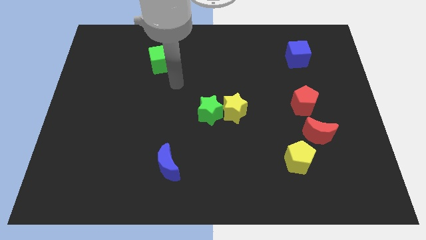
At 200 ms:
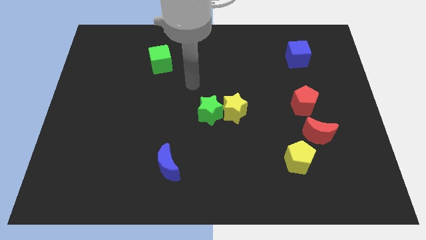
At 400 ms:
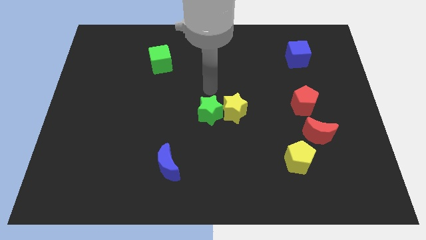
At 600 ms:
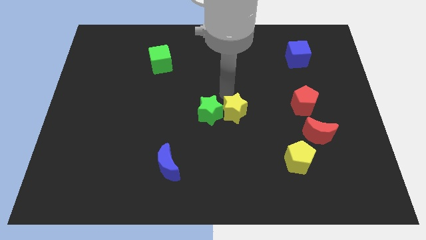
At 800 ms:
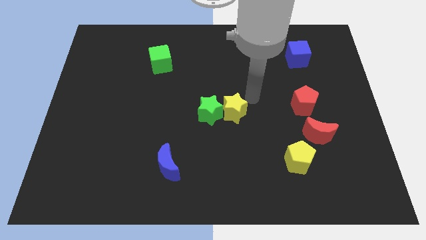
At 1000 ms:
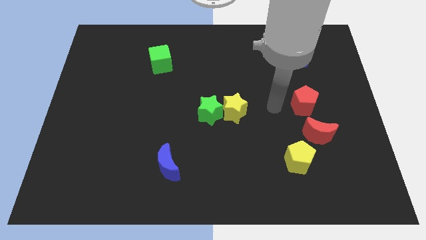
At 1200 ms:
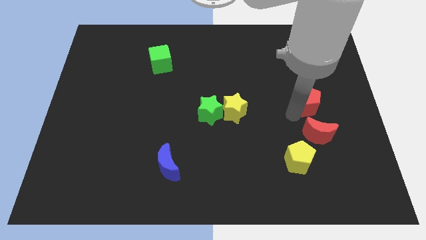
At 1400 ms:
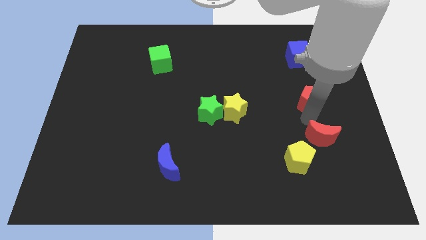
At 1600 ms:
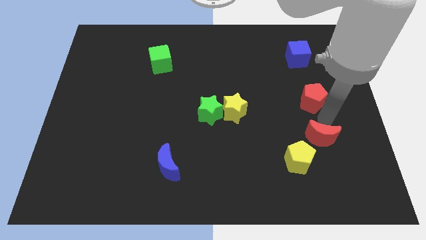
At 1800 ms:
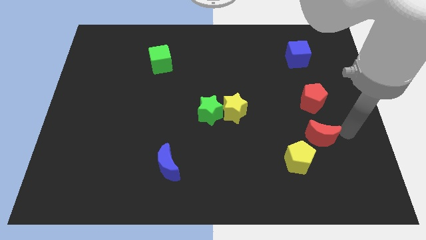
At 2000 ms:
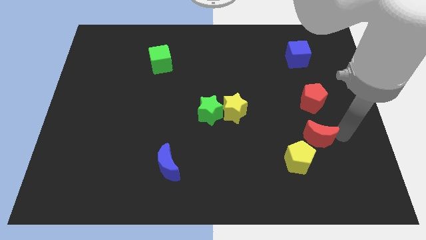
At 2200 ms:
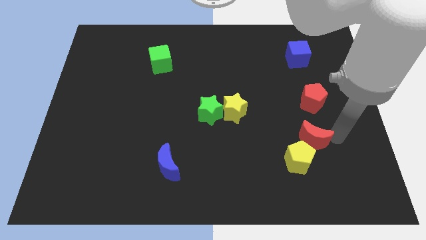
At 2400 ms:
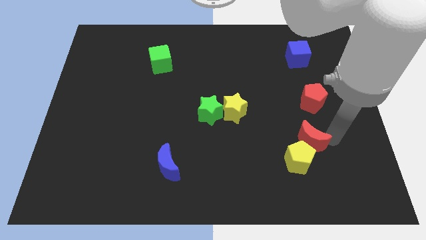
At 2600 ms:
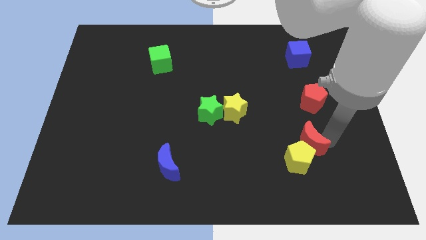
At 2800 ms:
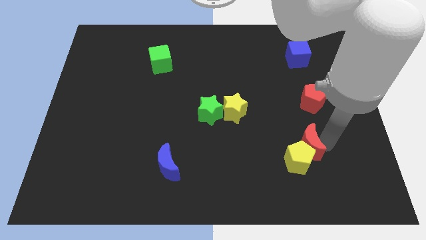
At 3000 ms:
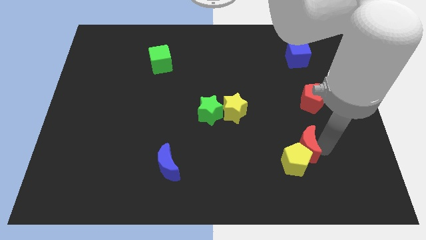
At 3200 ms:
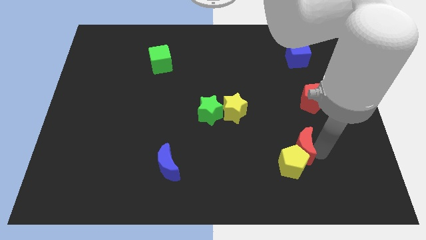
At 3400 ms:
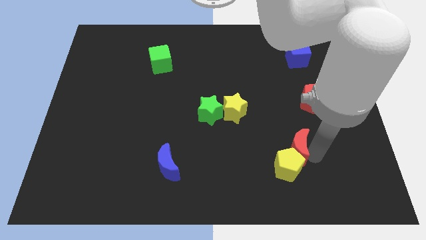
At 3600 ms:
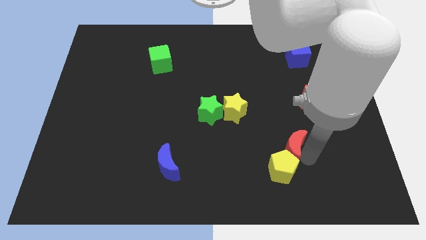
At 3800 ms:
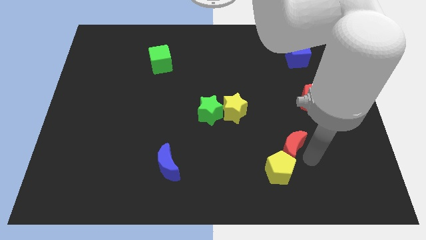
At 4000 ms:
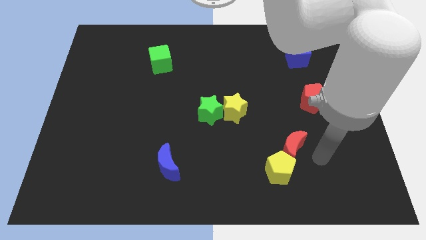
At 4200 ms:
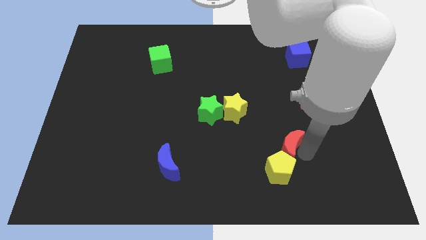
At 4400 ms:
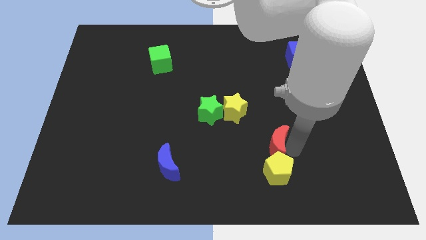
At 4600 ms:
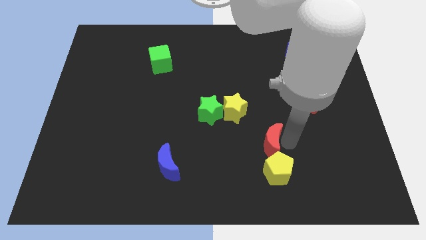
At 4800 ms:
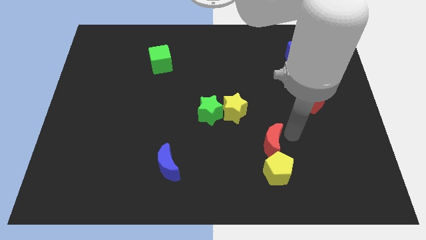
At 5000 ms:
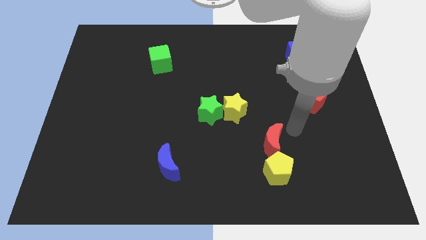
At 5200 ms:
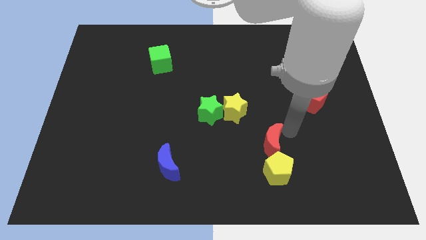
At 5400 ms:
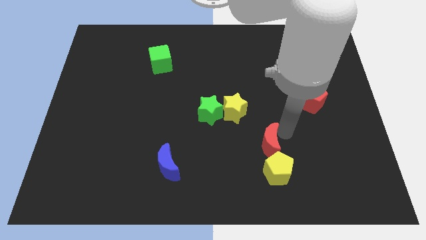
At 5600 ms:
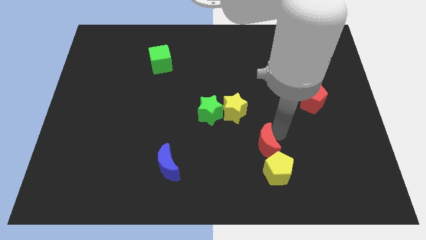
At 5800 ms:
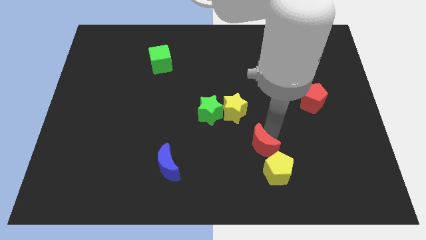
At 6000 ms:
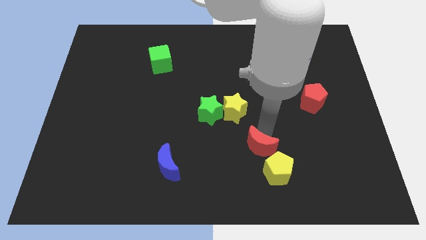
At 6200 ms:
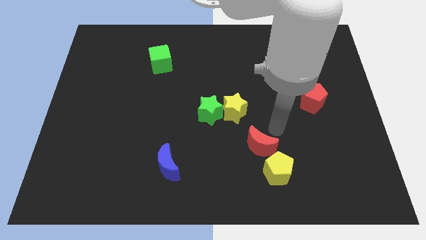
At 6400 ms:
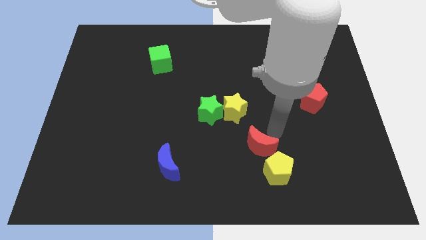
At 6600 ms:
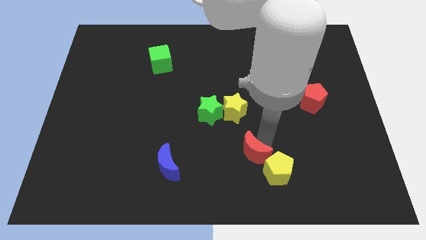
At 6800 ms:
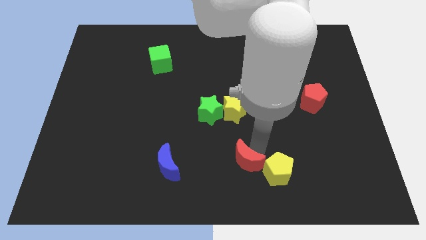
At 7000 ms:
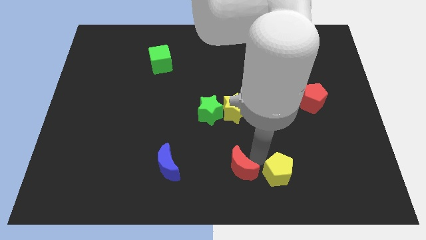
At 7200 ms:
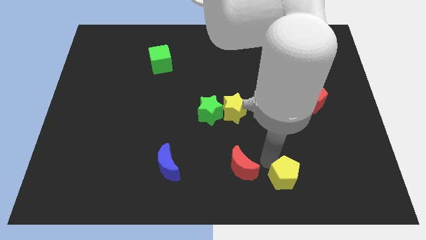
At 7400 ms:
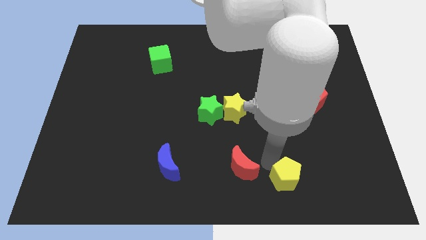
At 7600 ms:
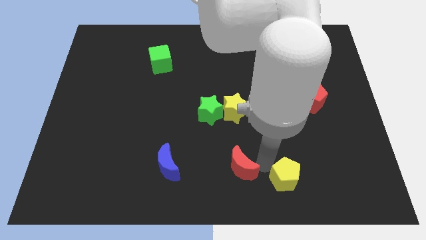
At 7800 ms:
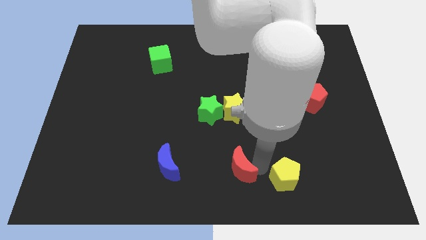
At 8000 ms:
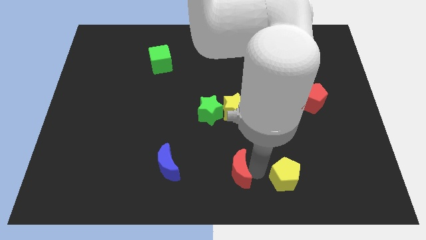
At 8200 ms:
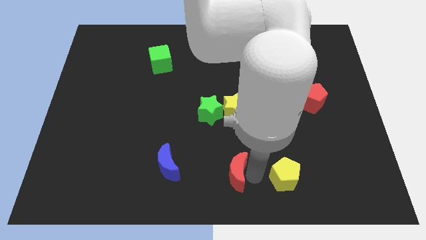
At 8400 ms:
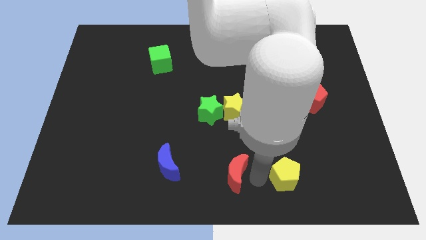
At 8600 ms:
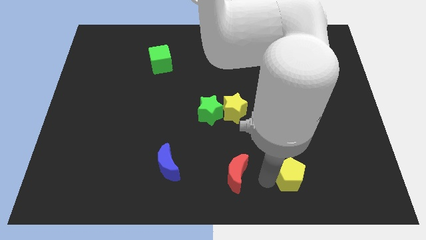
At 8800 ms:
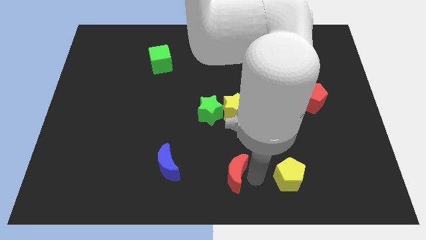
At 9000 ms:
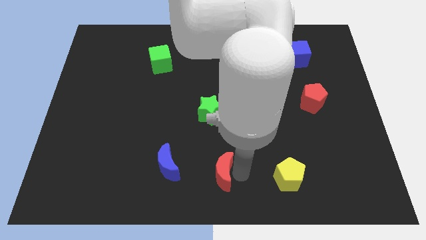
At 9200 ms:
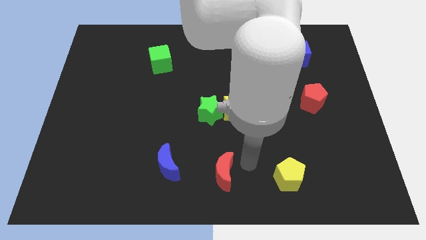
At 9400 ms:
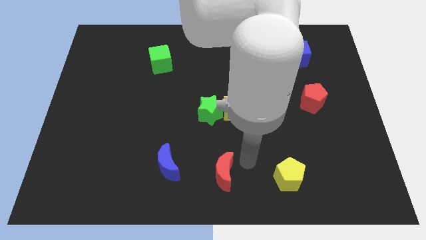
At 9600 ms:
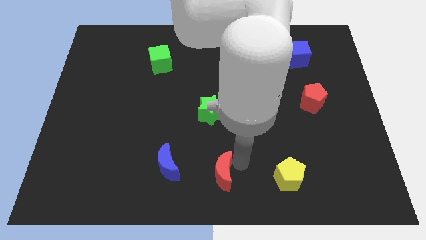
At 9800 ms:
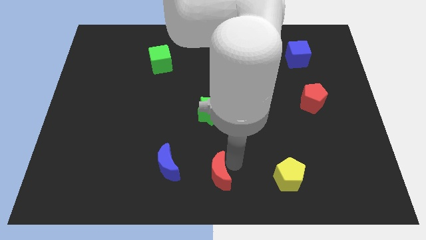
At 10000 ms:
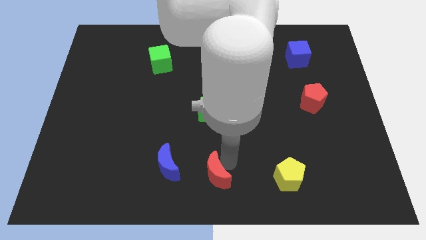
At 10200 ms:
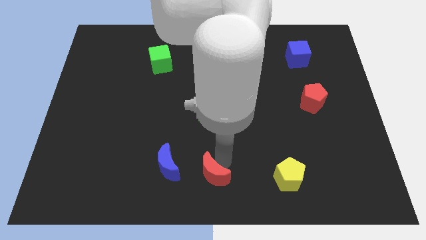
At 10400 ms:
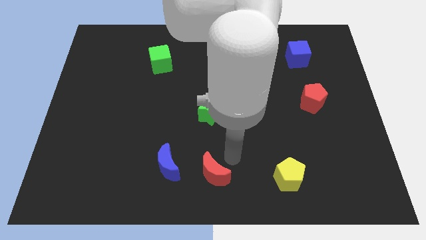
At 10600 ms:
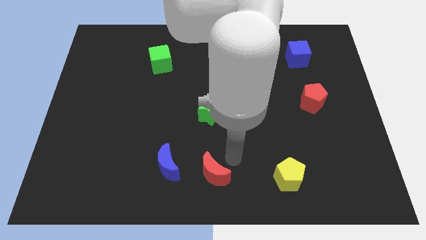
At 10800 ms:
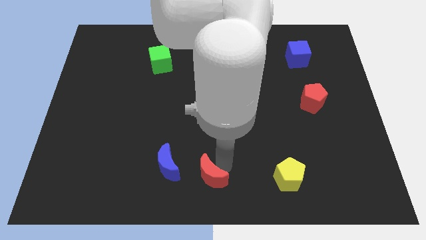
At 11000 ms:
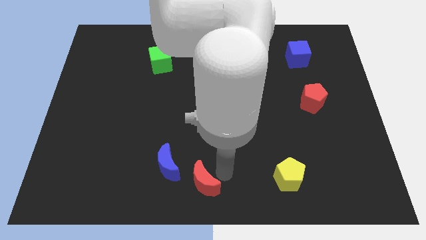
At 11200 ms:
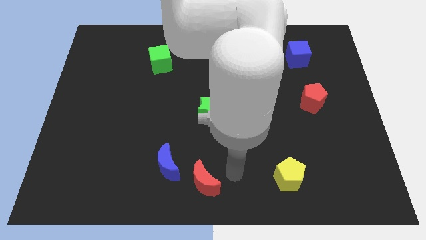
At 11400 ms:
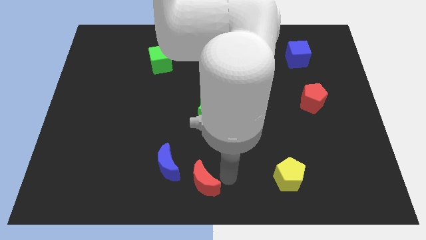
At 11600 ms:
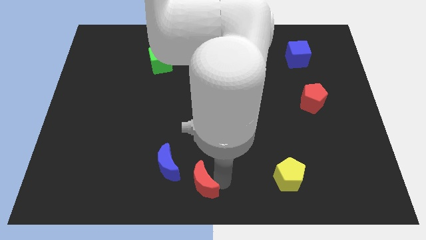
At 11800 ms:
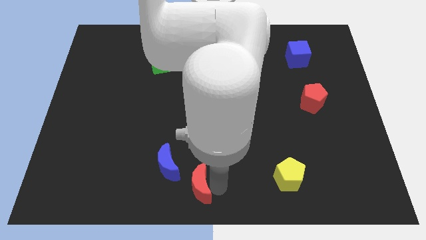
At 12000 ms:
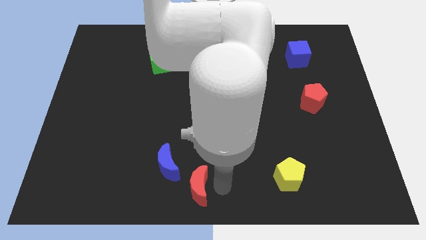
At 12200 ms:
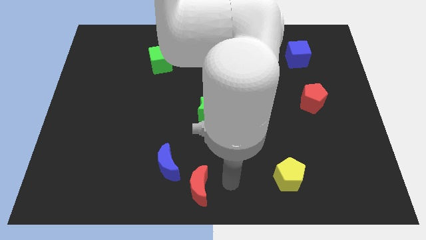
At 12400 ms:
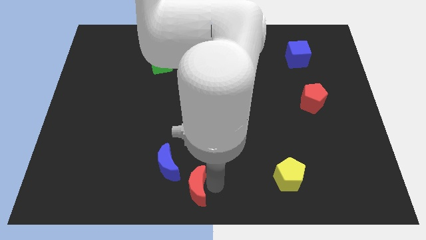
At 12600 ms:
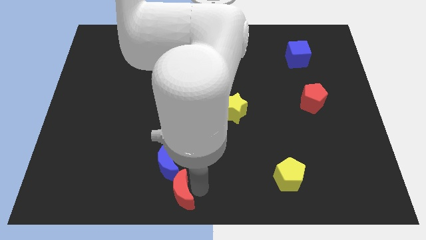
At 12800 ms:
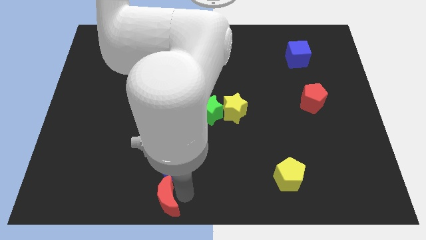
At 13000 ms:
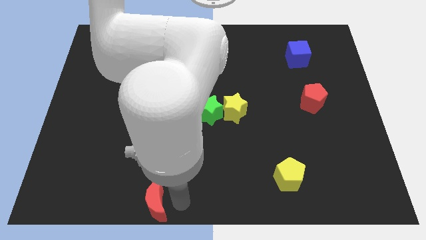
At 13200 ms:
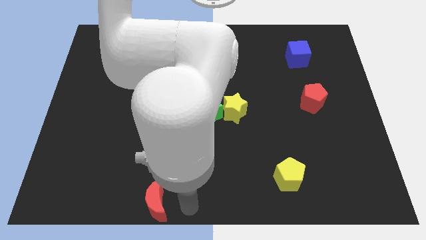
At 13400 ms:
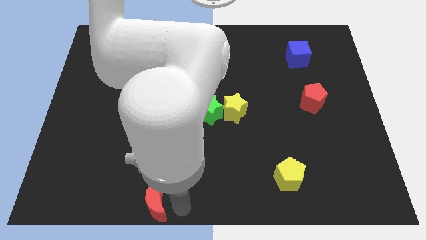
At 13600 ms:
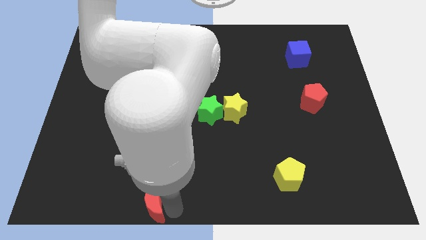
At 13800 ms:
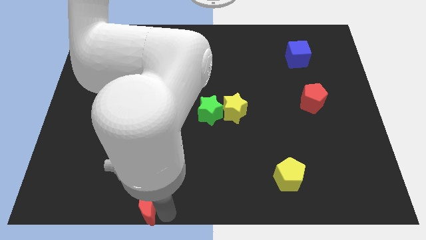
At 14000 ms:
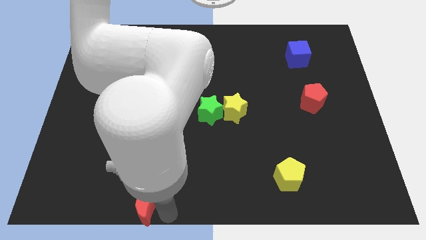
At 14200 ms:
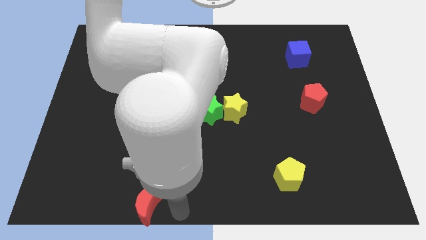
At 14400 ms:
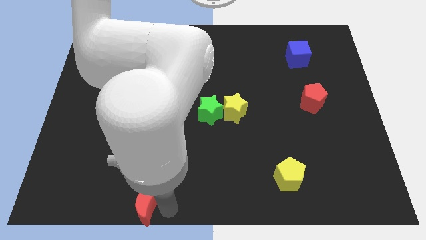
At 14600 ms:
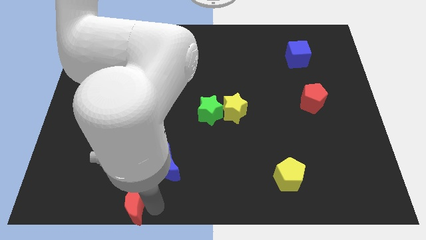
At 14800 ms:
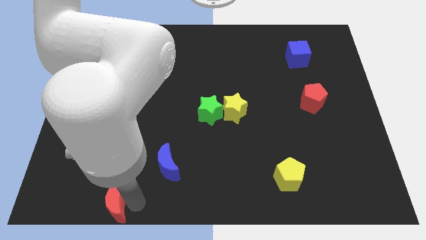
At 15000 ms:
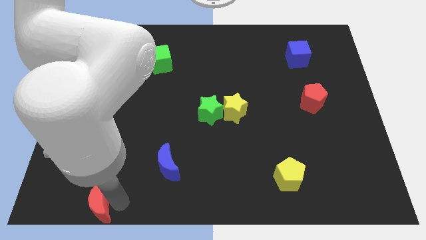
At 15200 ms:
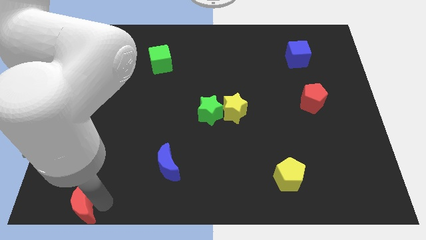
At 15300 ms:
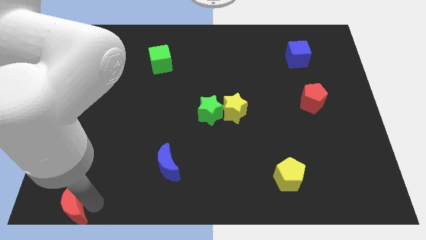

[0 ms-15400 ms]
push the red moon to the lower left corner
